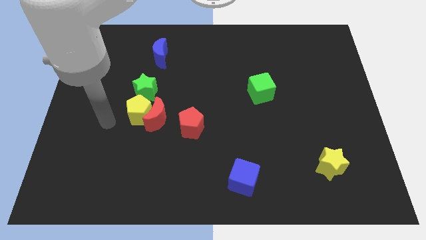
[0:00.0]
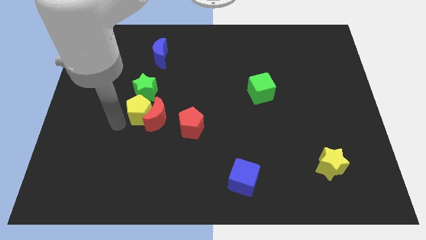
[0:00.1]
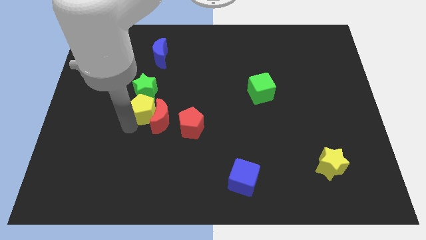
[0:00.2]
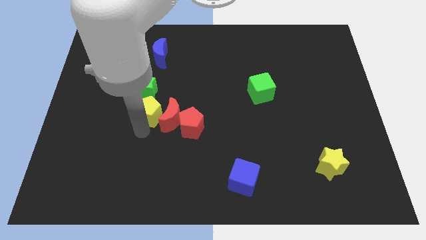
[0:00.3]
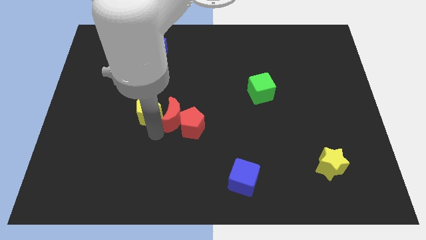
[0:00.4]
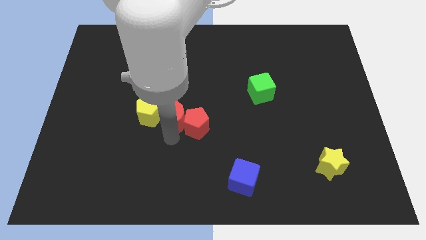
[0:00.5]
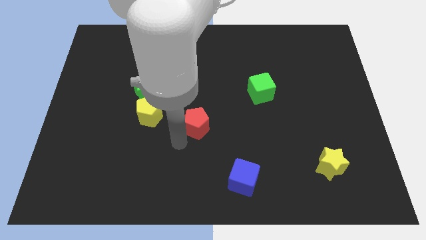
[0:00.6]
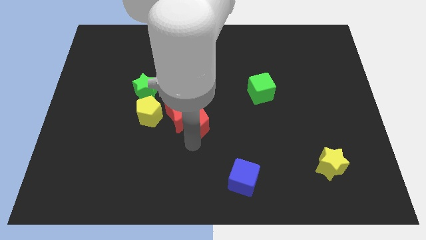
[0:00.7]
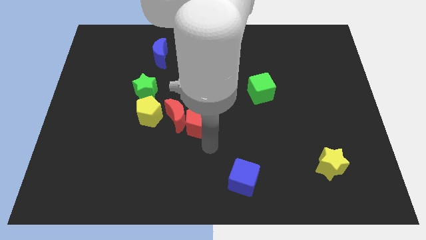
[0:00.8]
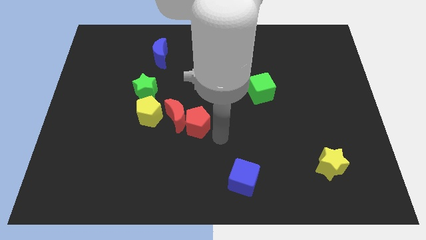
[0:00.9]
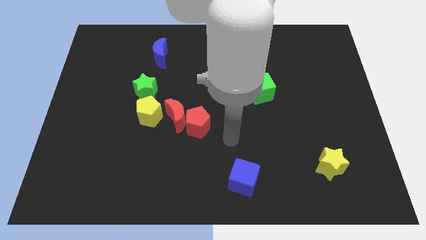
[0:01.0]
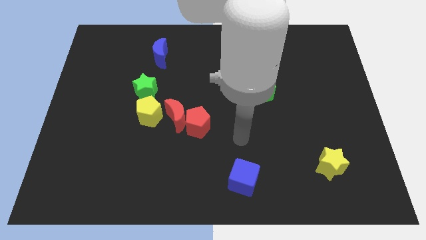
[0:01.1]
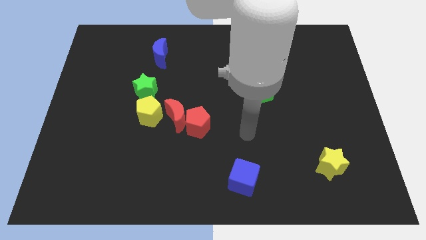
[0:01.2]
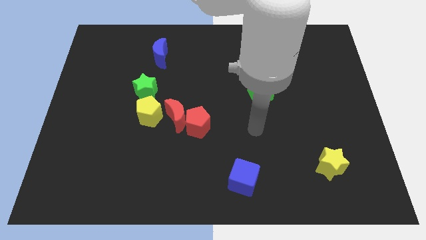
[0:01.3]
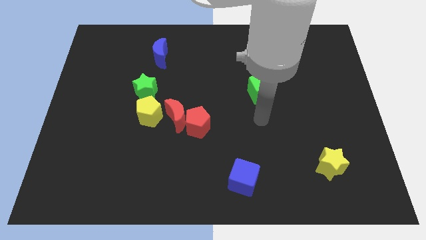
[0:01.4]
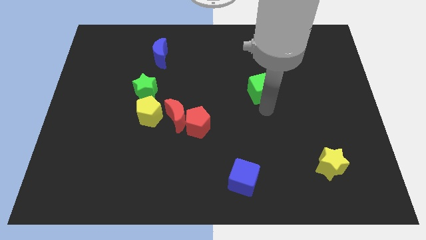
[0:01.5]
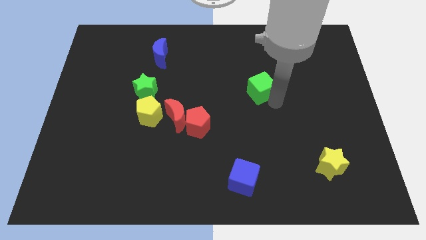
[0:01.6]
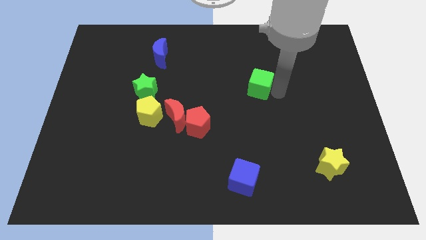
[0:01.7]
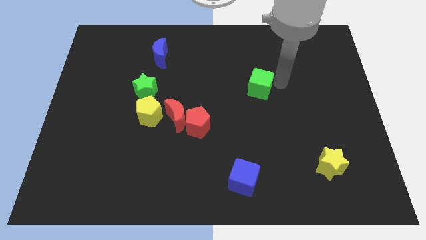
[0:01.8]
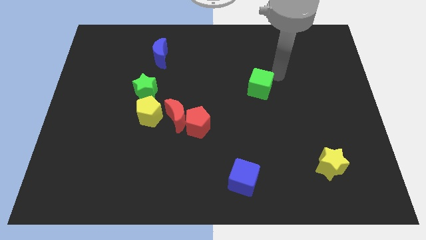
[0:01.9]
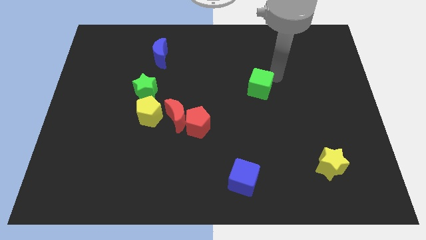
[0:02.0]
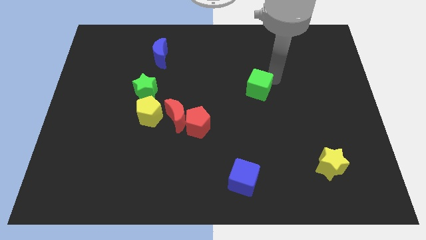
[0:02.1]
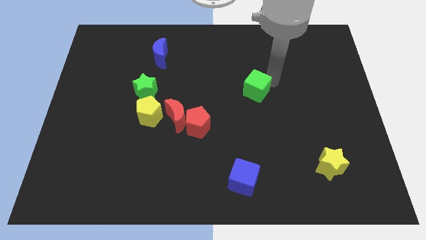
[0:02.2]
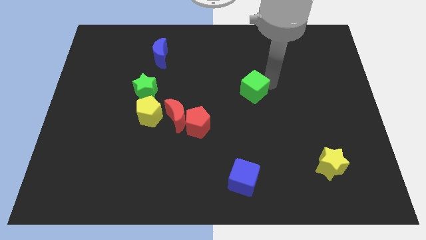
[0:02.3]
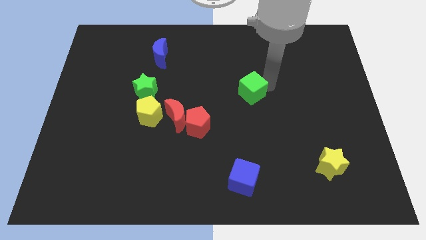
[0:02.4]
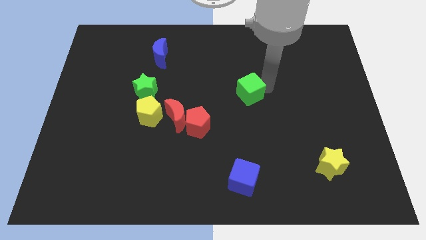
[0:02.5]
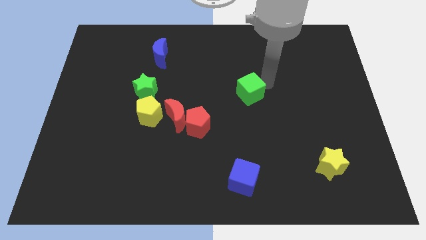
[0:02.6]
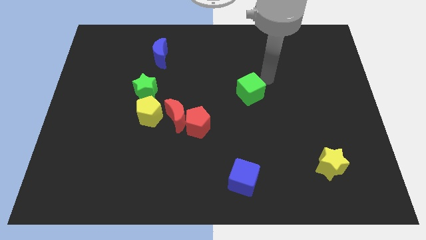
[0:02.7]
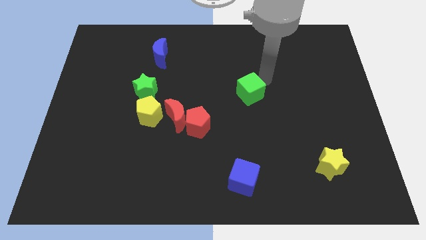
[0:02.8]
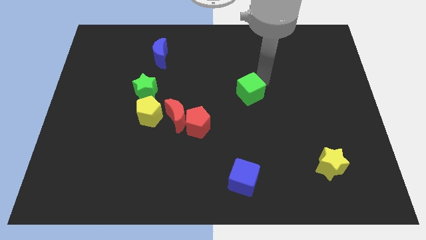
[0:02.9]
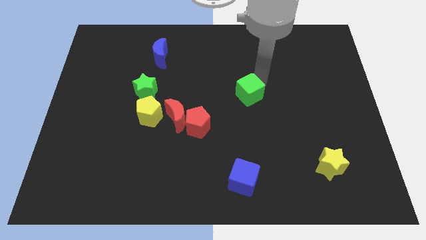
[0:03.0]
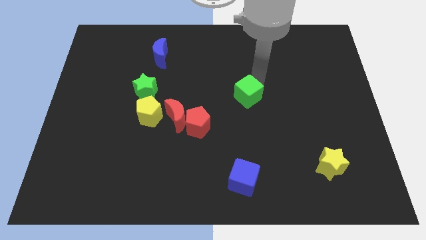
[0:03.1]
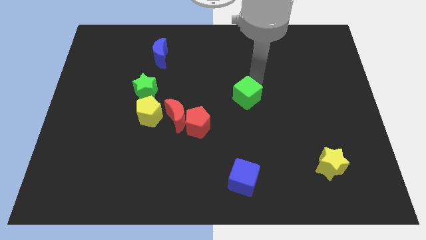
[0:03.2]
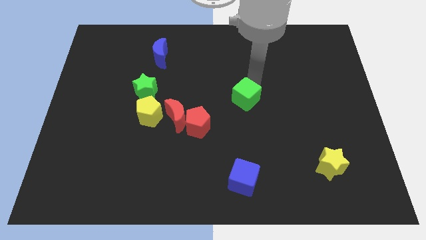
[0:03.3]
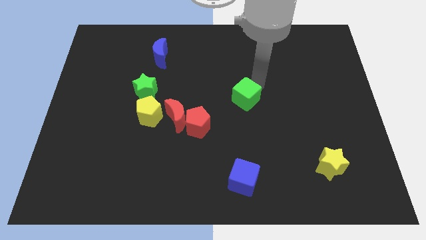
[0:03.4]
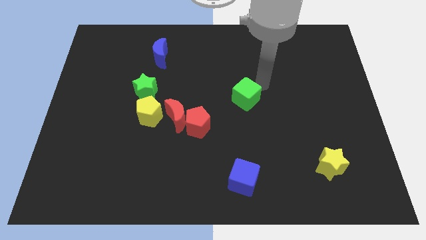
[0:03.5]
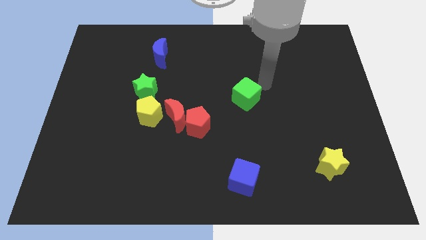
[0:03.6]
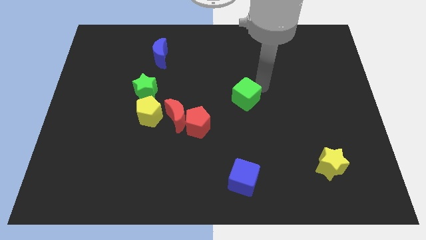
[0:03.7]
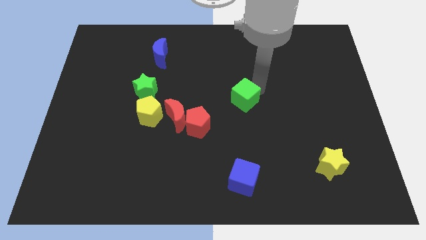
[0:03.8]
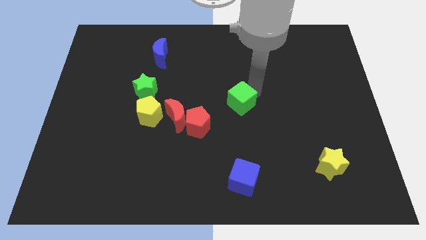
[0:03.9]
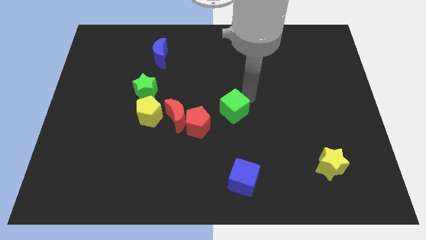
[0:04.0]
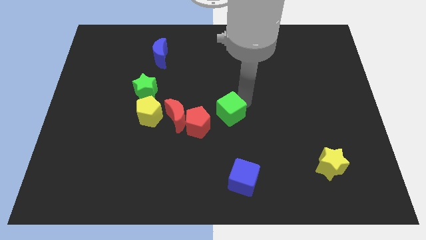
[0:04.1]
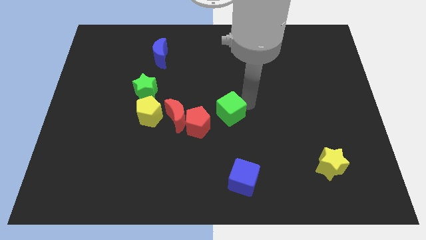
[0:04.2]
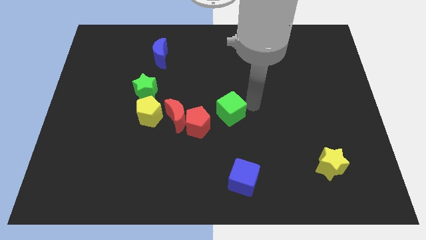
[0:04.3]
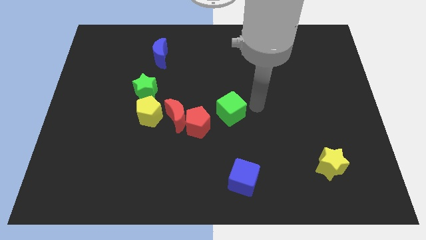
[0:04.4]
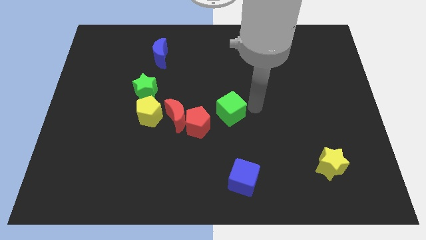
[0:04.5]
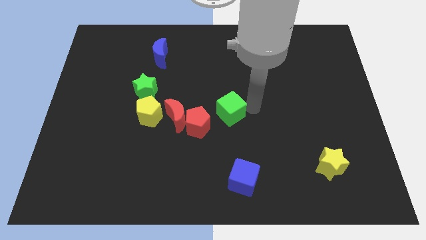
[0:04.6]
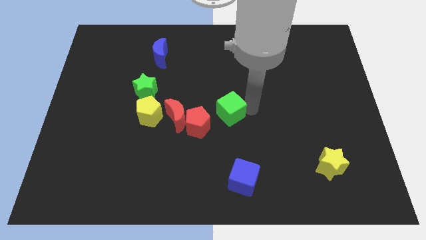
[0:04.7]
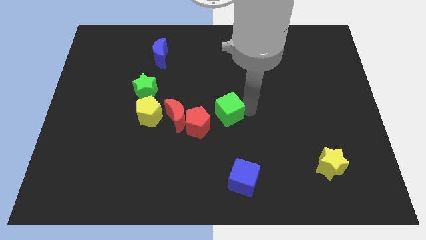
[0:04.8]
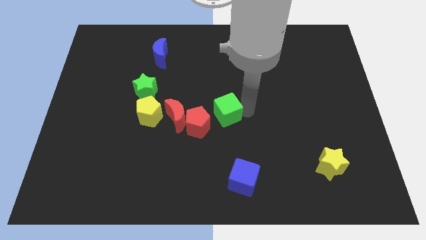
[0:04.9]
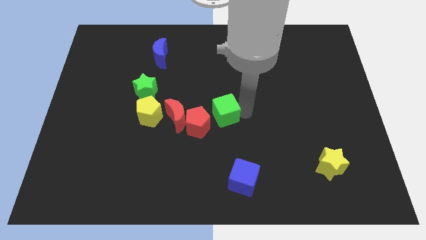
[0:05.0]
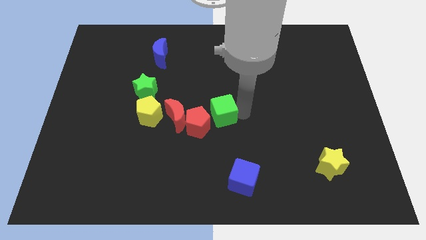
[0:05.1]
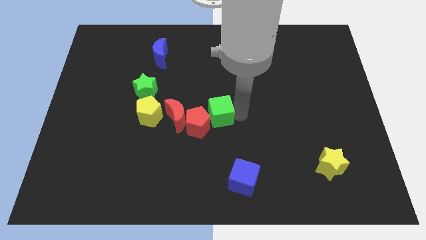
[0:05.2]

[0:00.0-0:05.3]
push the green cube next to the red pentagon

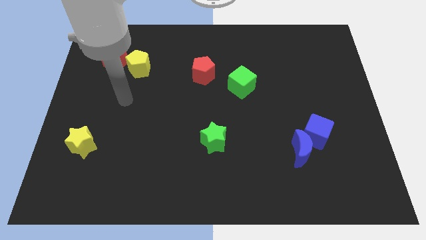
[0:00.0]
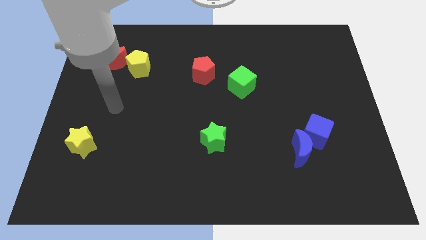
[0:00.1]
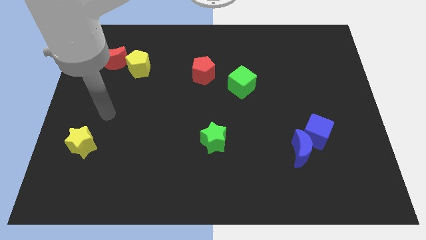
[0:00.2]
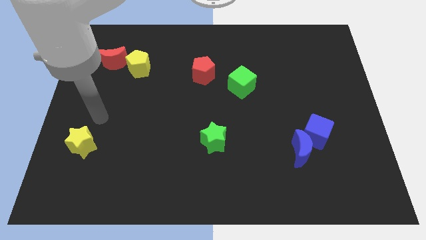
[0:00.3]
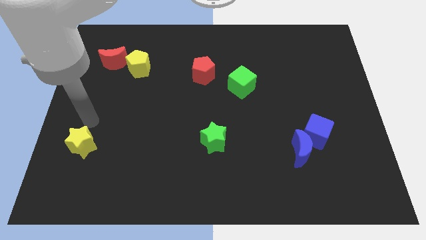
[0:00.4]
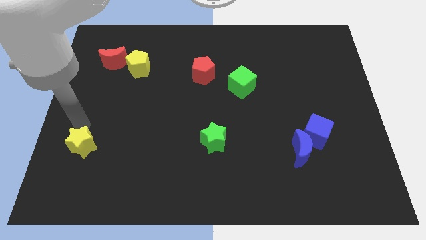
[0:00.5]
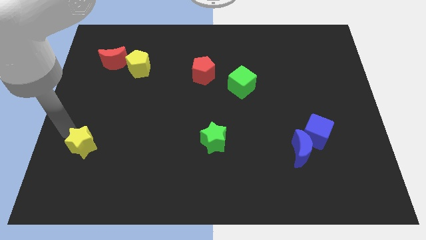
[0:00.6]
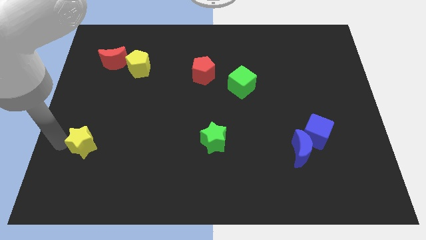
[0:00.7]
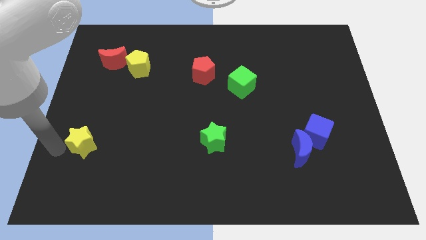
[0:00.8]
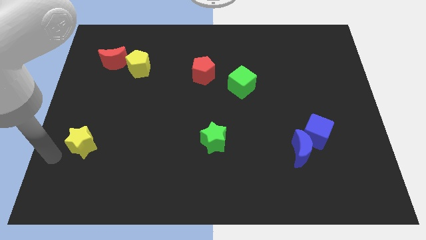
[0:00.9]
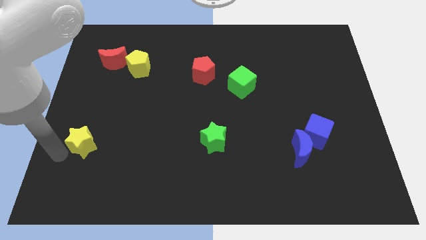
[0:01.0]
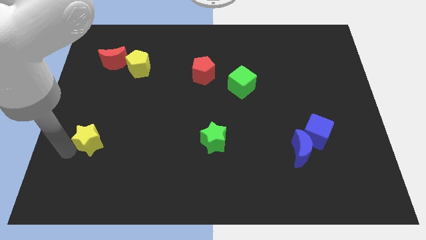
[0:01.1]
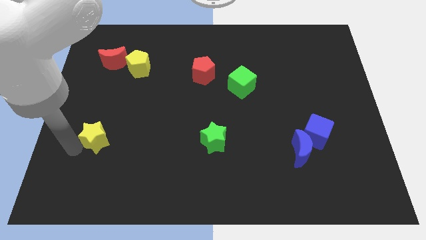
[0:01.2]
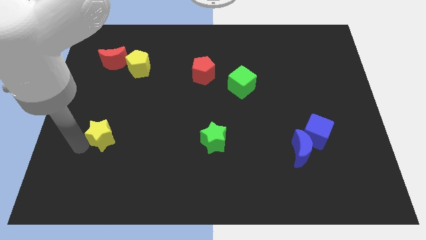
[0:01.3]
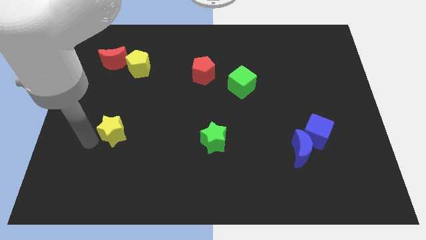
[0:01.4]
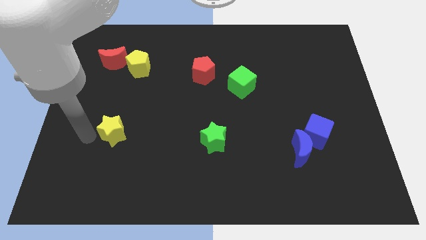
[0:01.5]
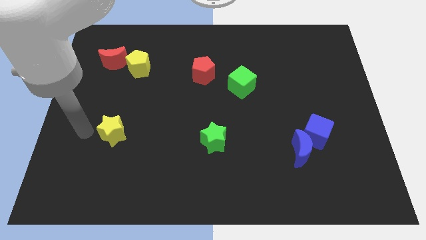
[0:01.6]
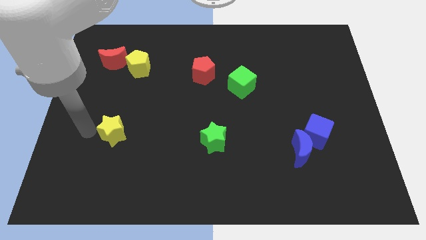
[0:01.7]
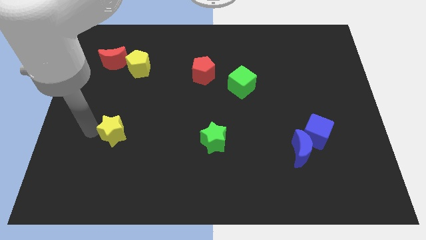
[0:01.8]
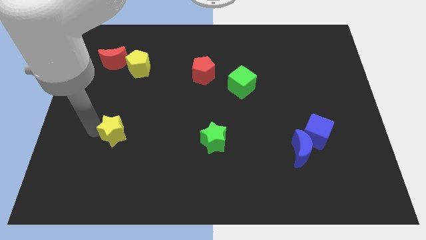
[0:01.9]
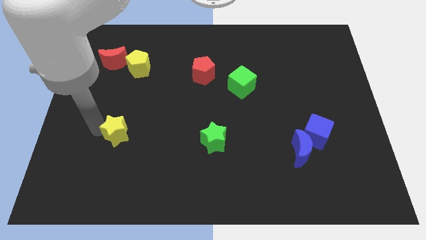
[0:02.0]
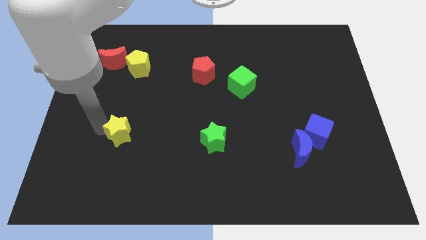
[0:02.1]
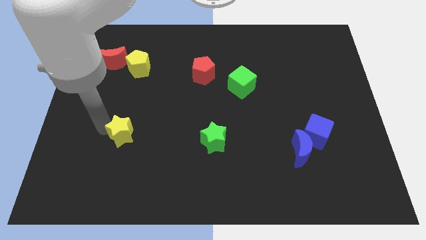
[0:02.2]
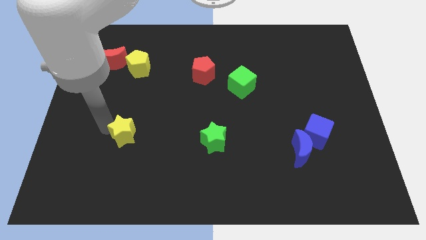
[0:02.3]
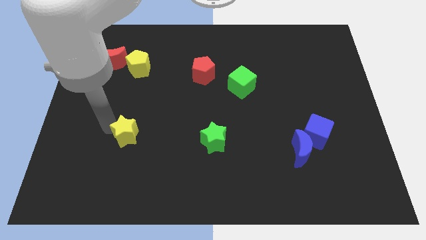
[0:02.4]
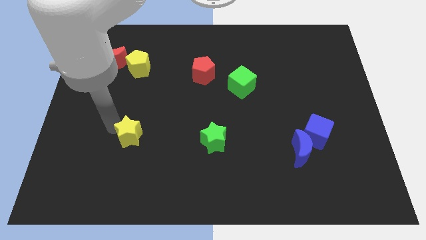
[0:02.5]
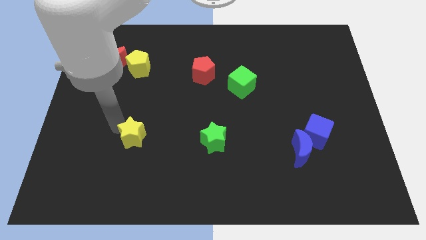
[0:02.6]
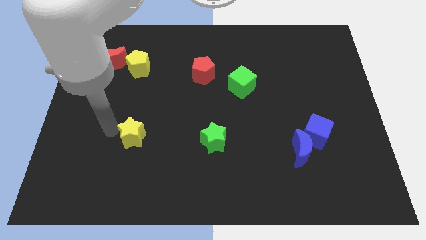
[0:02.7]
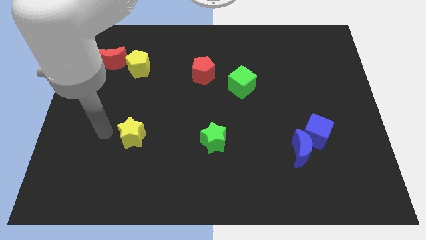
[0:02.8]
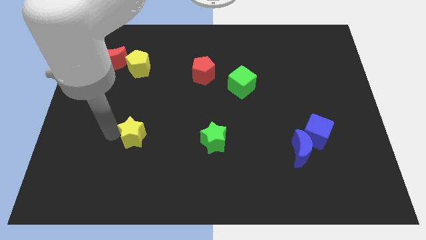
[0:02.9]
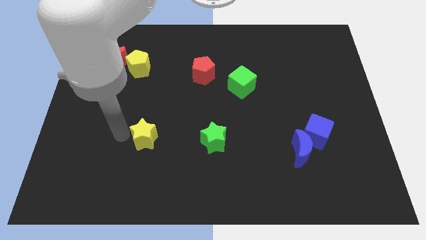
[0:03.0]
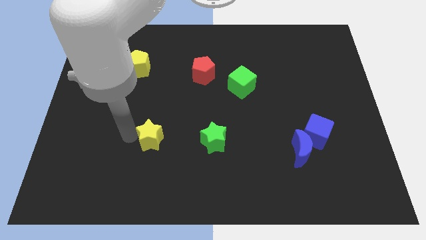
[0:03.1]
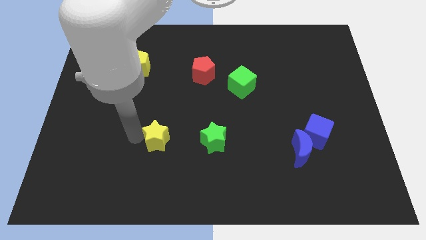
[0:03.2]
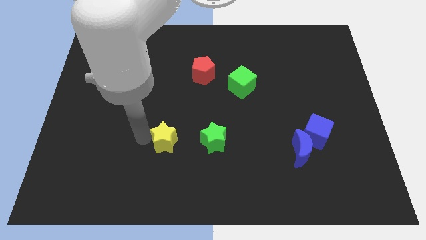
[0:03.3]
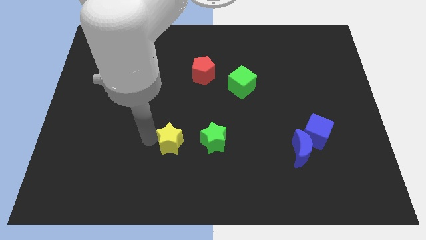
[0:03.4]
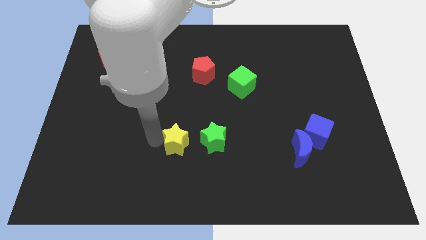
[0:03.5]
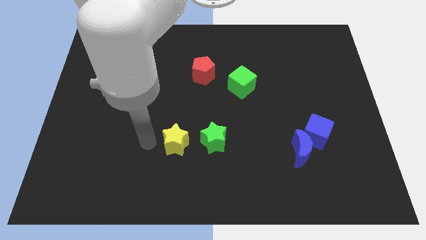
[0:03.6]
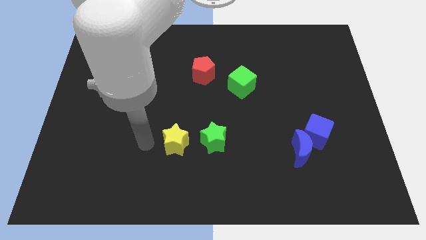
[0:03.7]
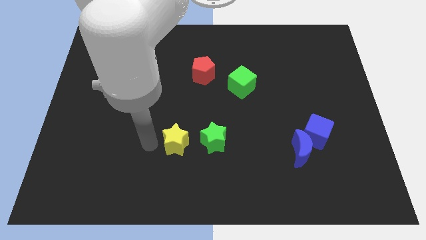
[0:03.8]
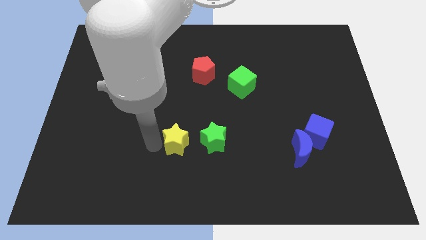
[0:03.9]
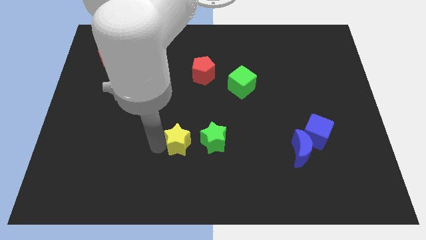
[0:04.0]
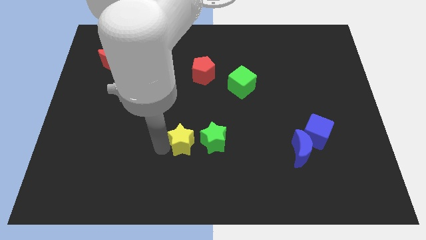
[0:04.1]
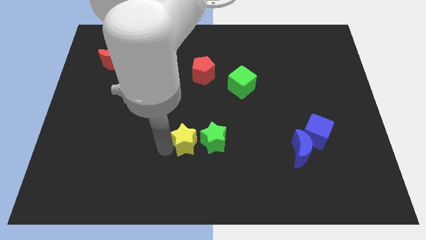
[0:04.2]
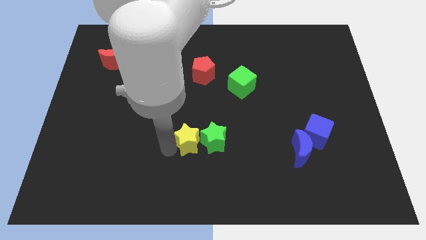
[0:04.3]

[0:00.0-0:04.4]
put the yellow star close to the green star
